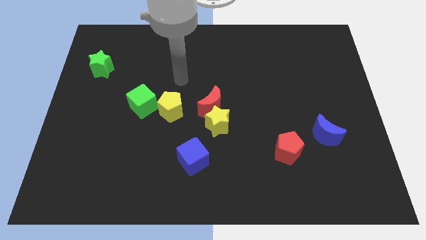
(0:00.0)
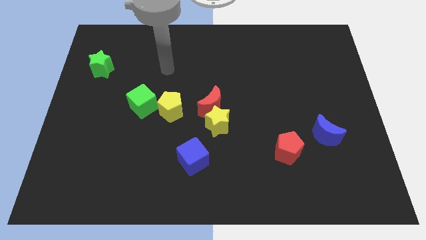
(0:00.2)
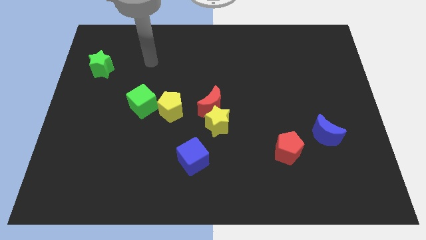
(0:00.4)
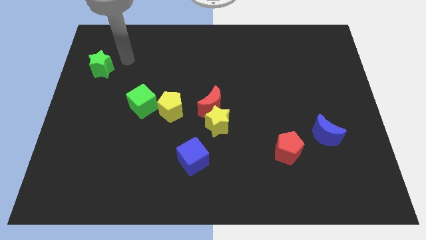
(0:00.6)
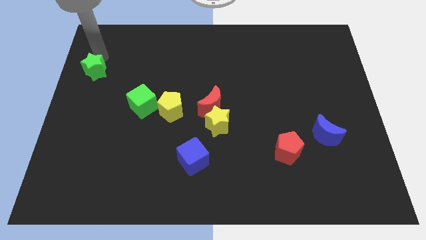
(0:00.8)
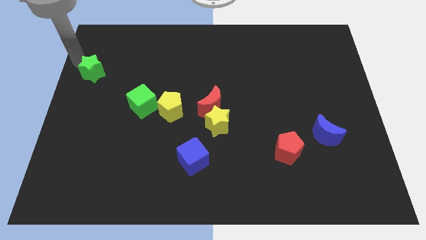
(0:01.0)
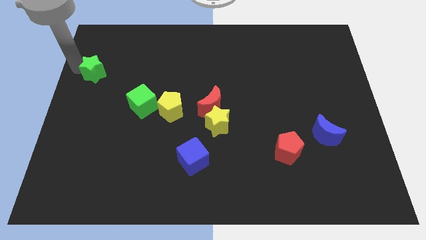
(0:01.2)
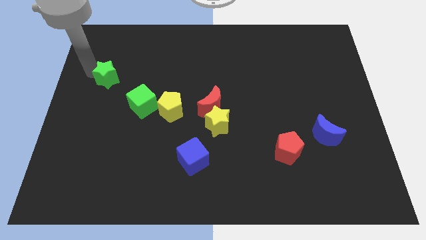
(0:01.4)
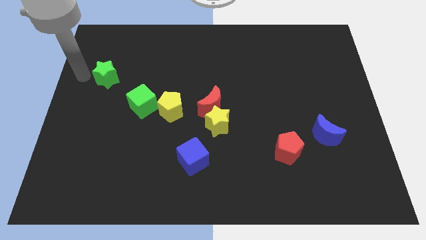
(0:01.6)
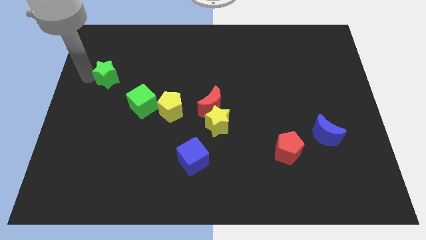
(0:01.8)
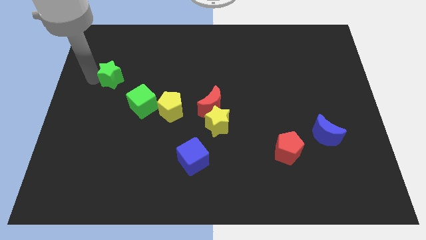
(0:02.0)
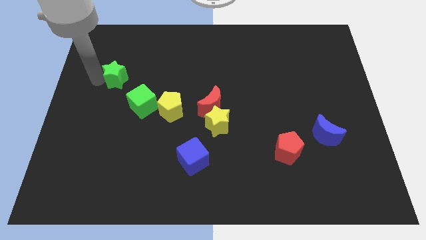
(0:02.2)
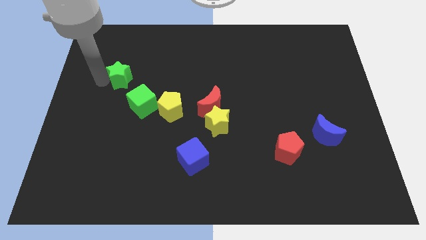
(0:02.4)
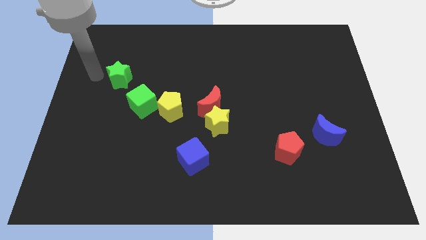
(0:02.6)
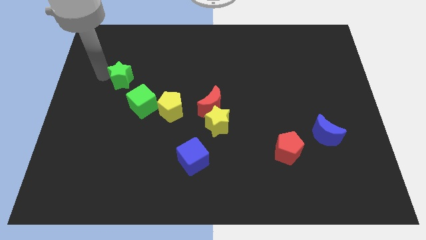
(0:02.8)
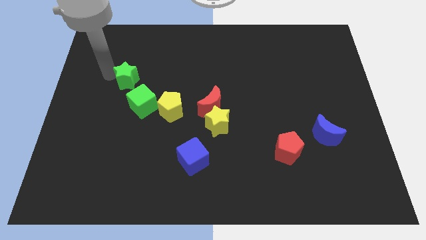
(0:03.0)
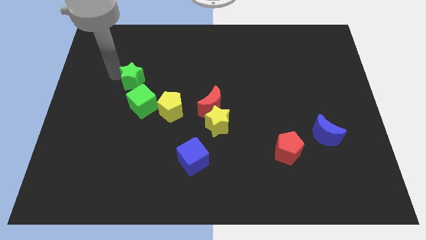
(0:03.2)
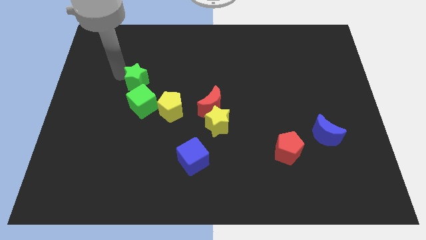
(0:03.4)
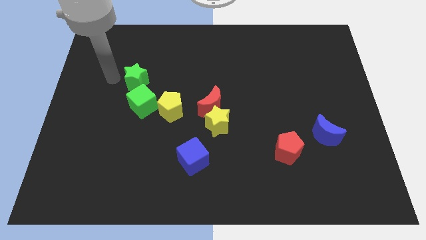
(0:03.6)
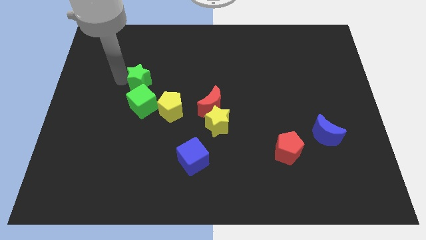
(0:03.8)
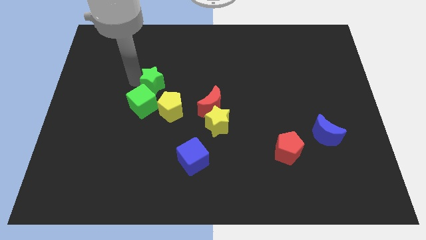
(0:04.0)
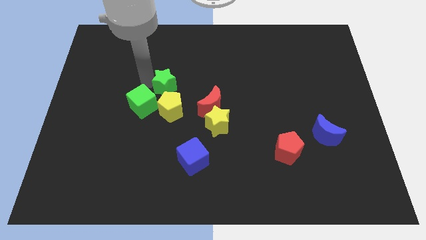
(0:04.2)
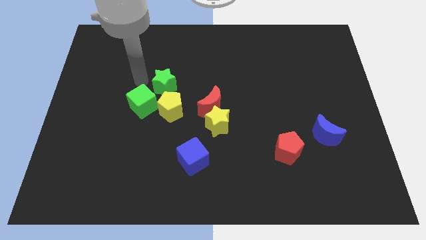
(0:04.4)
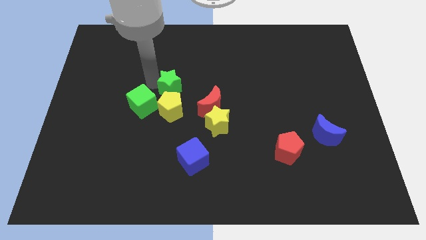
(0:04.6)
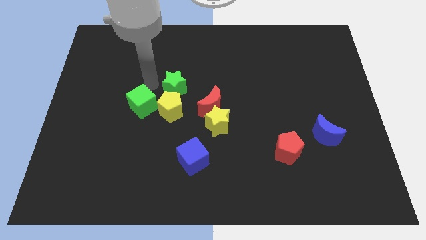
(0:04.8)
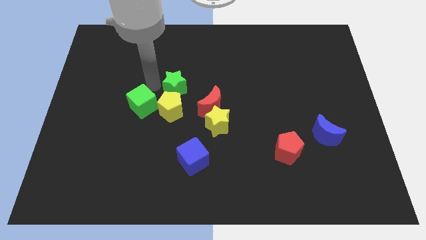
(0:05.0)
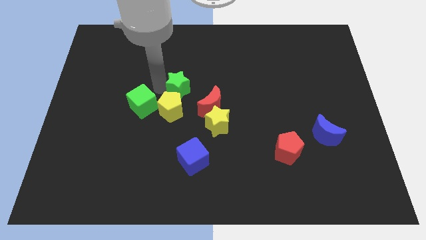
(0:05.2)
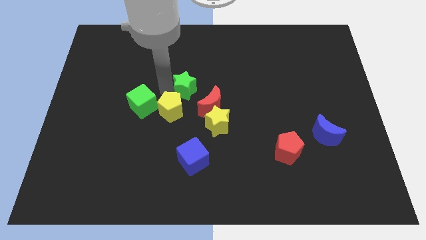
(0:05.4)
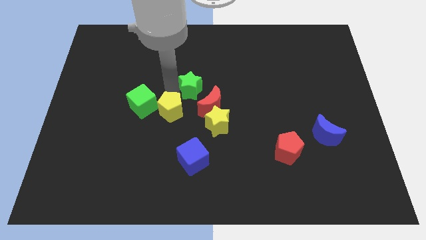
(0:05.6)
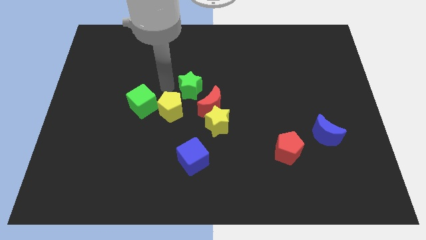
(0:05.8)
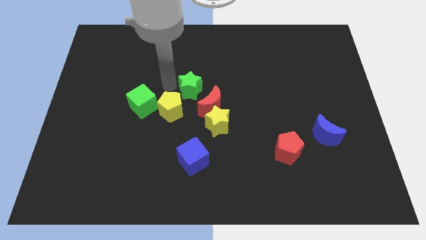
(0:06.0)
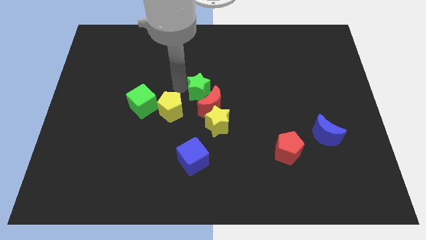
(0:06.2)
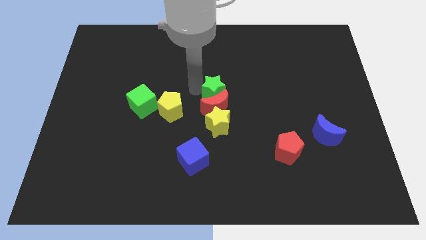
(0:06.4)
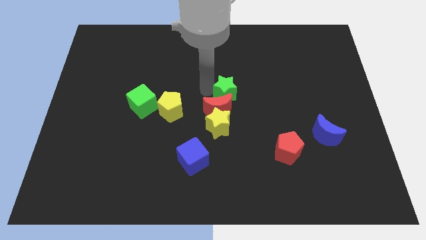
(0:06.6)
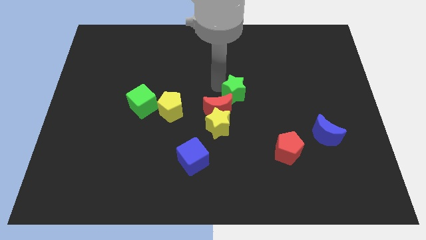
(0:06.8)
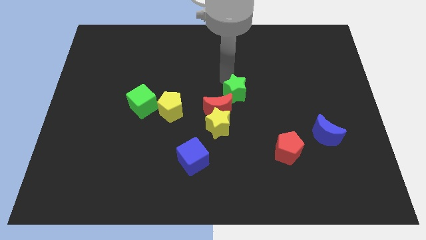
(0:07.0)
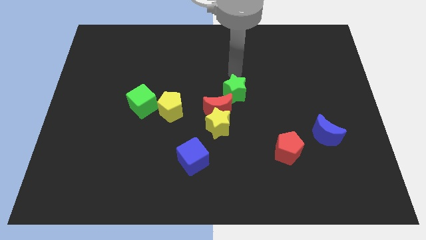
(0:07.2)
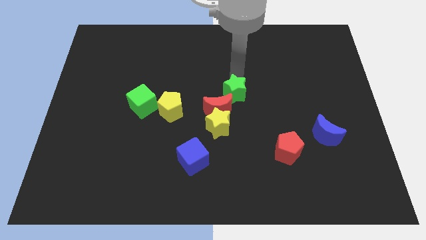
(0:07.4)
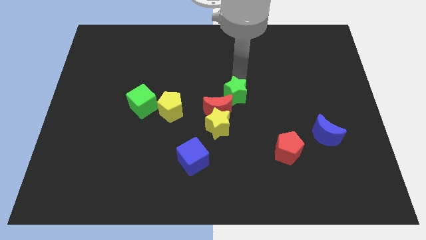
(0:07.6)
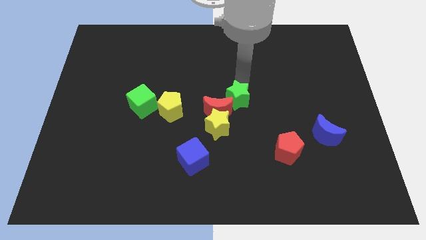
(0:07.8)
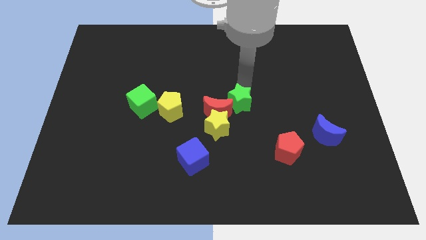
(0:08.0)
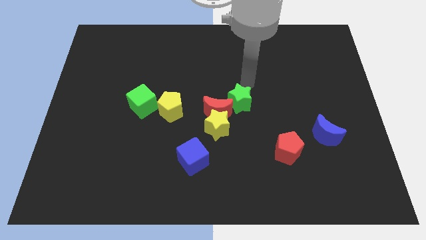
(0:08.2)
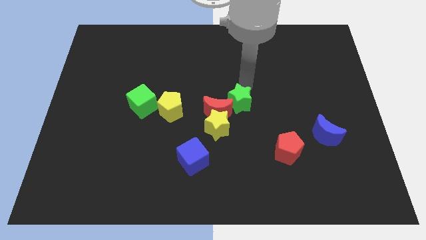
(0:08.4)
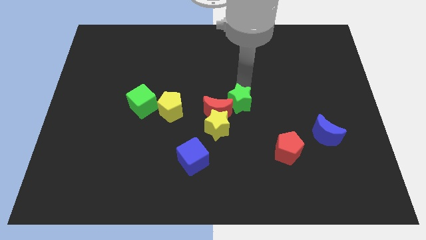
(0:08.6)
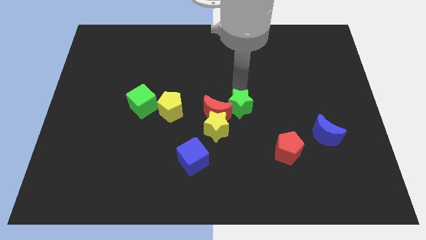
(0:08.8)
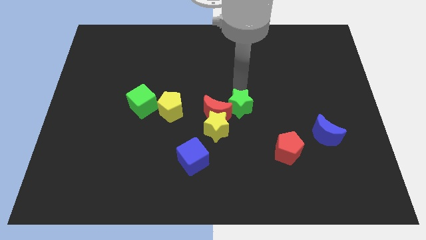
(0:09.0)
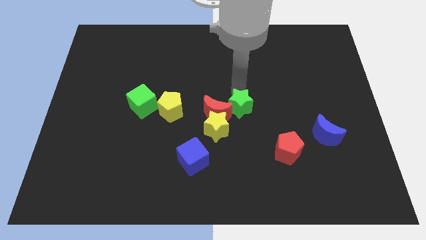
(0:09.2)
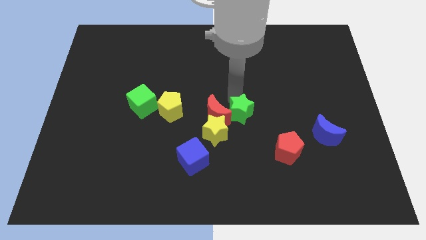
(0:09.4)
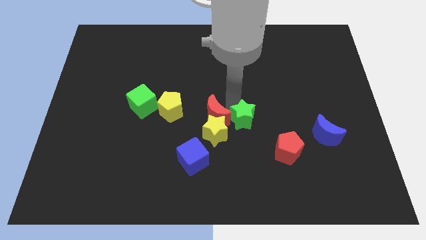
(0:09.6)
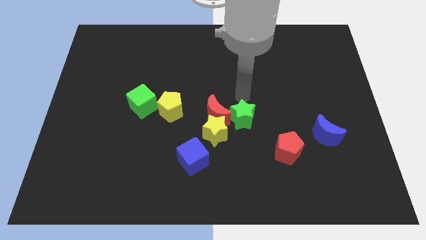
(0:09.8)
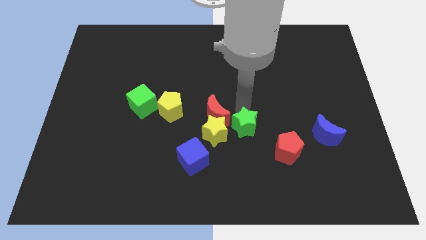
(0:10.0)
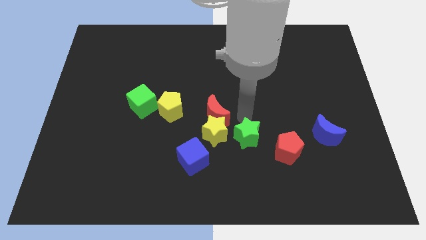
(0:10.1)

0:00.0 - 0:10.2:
slide the green star to the bottom right side of the yellow star

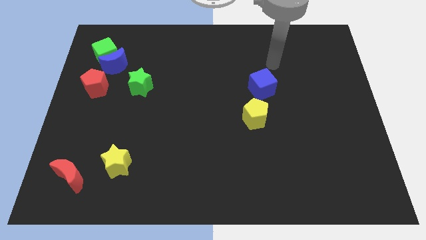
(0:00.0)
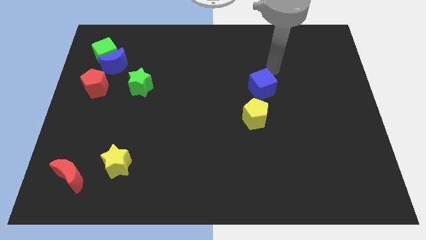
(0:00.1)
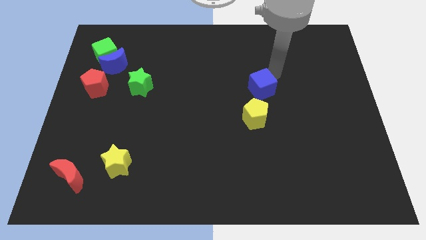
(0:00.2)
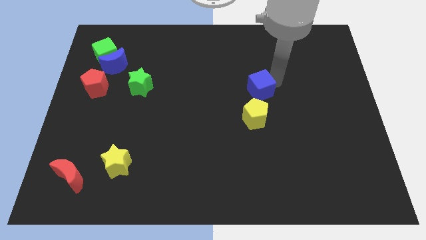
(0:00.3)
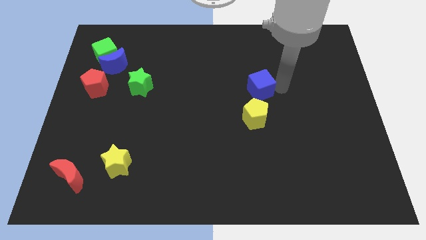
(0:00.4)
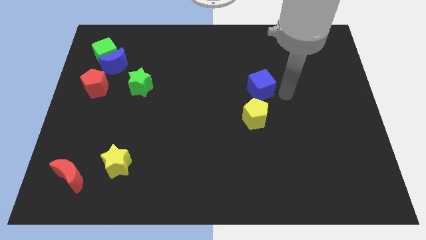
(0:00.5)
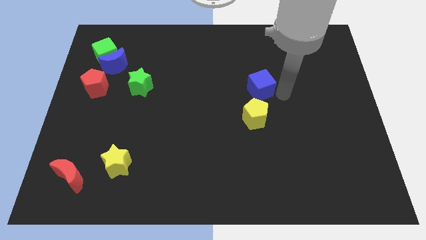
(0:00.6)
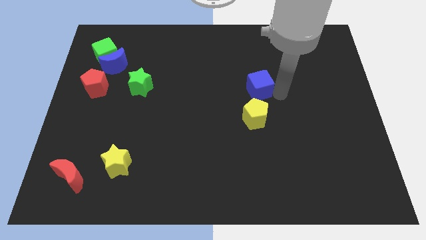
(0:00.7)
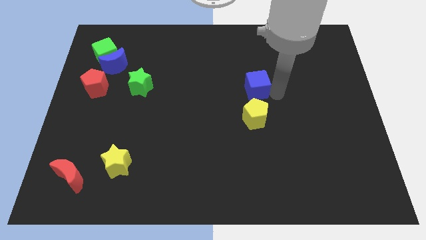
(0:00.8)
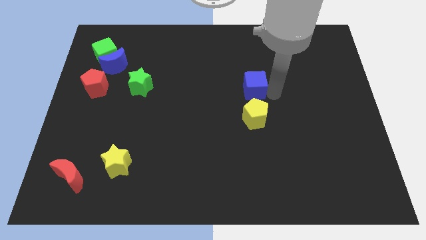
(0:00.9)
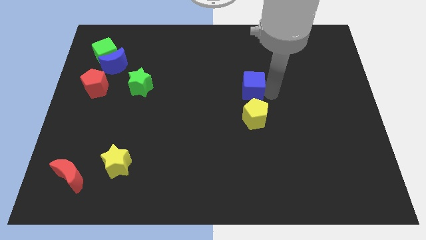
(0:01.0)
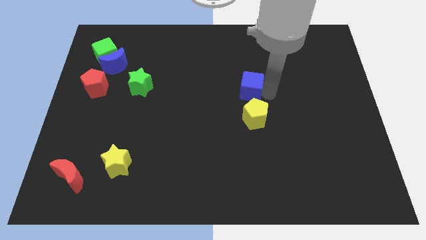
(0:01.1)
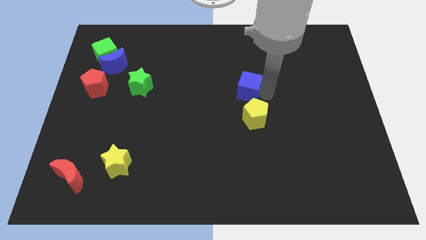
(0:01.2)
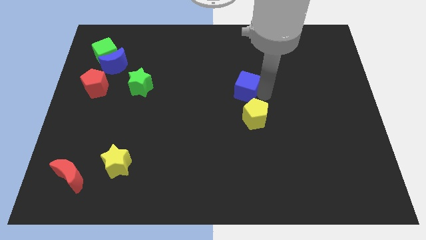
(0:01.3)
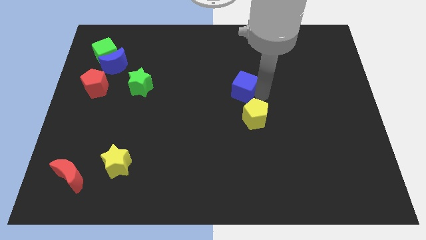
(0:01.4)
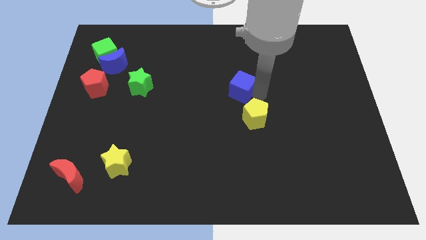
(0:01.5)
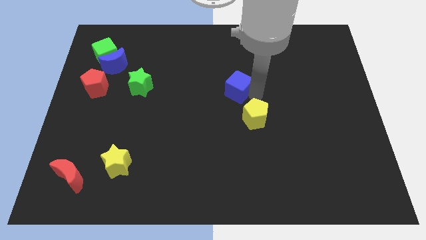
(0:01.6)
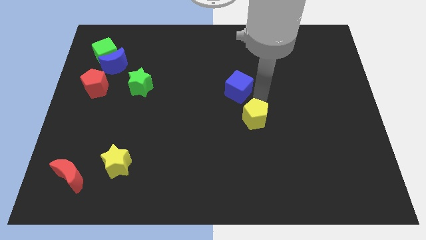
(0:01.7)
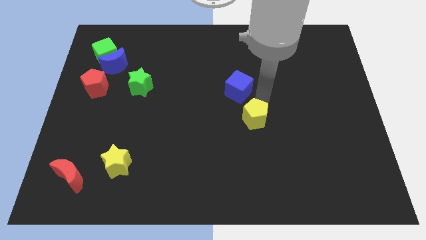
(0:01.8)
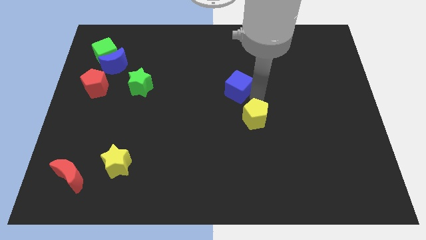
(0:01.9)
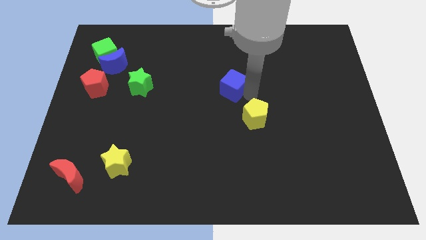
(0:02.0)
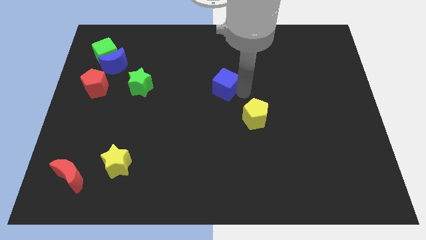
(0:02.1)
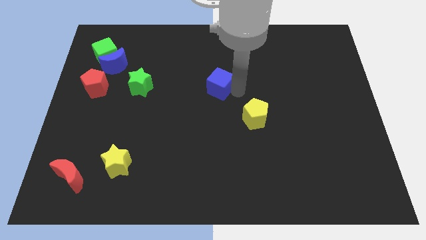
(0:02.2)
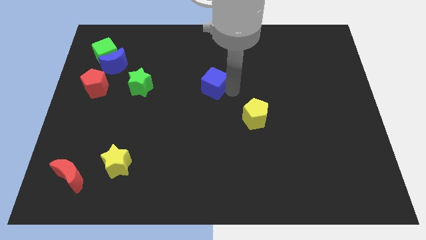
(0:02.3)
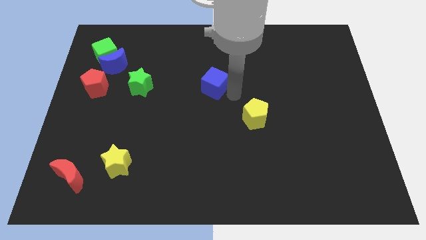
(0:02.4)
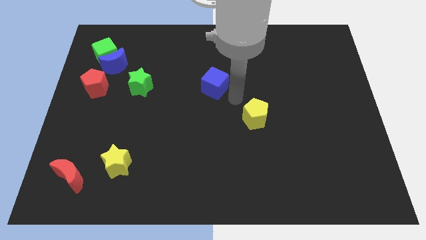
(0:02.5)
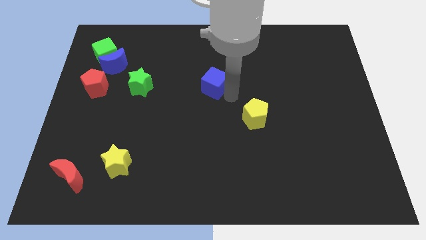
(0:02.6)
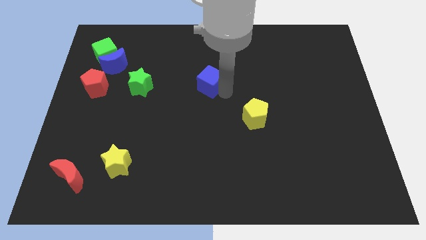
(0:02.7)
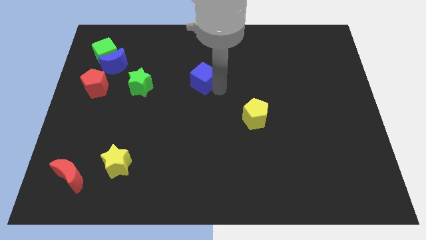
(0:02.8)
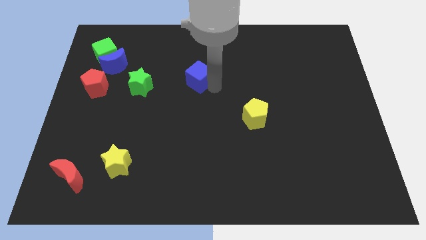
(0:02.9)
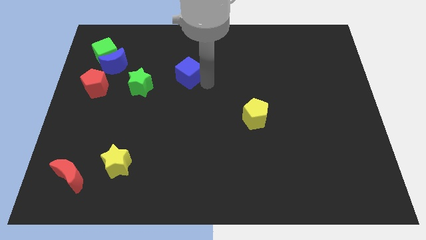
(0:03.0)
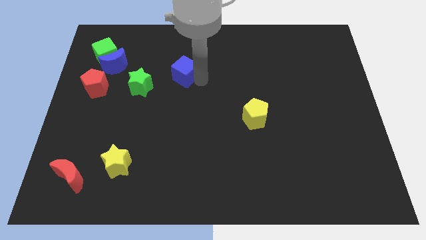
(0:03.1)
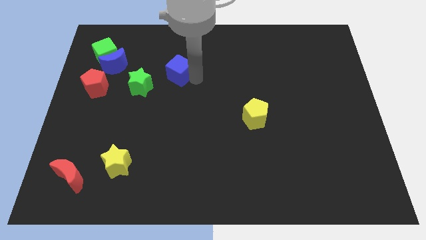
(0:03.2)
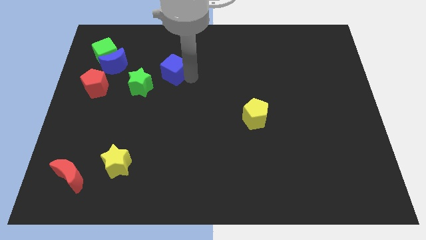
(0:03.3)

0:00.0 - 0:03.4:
put the blue cube right of the blue moon
